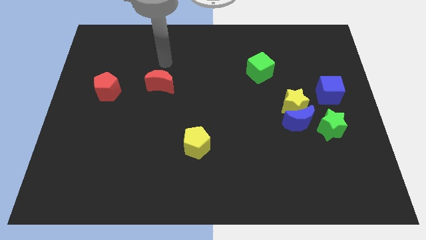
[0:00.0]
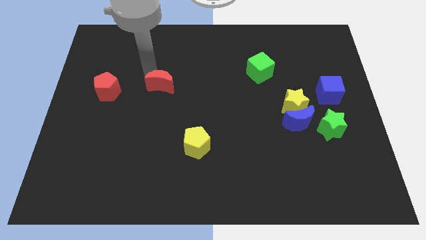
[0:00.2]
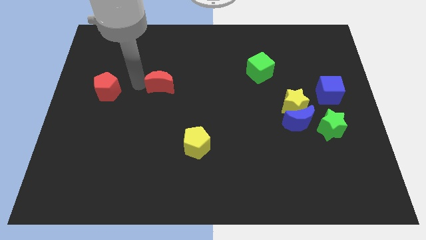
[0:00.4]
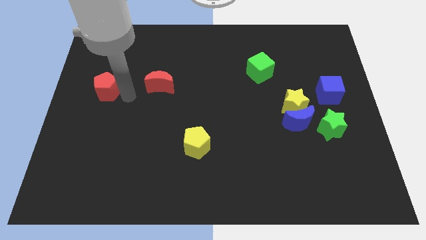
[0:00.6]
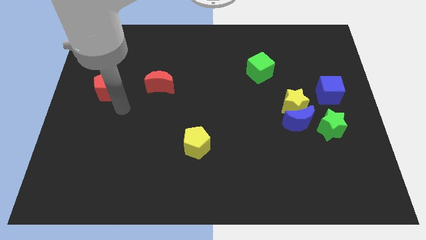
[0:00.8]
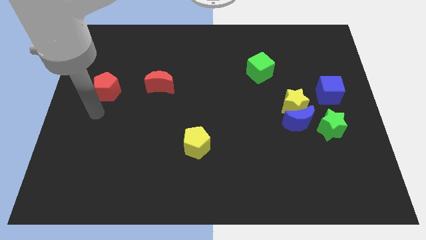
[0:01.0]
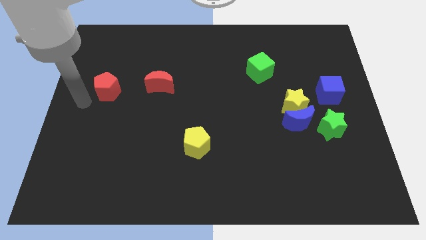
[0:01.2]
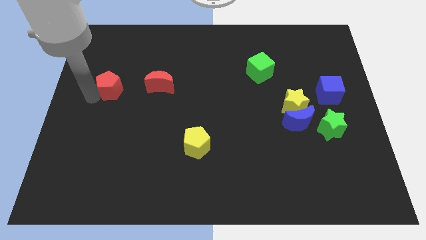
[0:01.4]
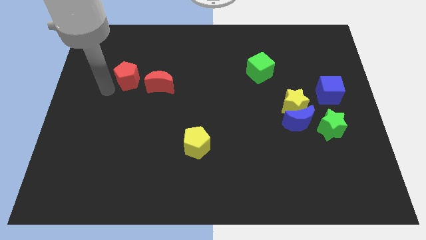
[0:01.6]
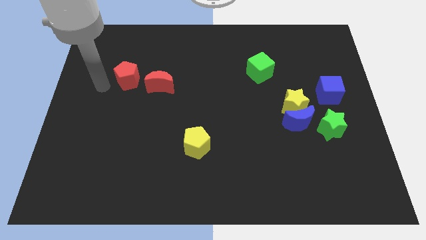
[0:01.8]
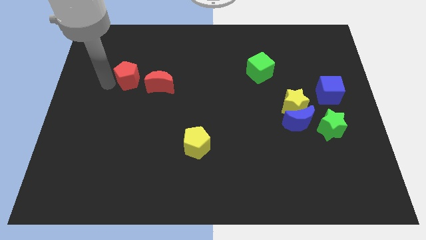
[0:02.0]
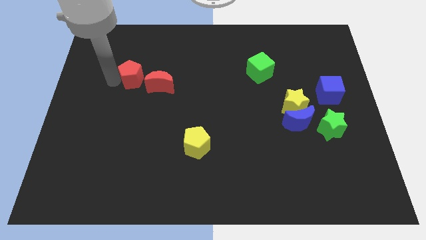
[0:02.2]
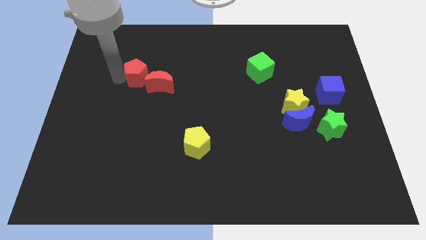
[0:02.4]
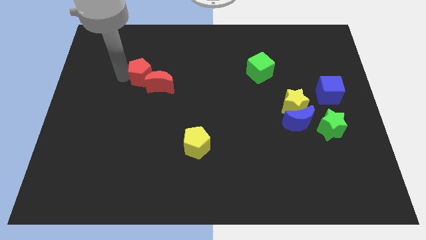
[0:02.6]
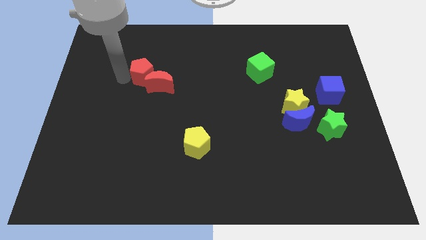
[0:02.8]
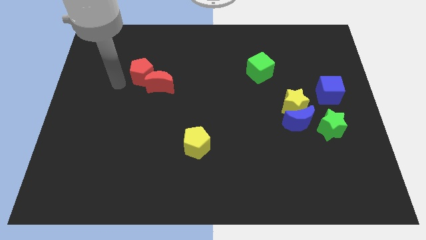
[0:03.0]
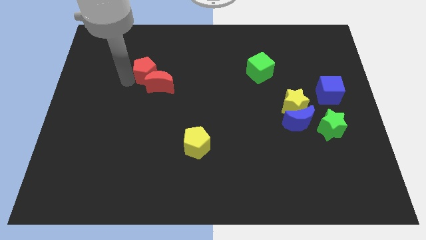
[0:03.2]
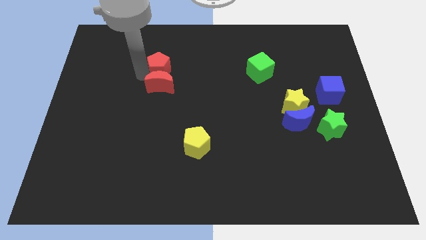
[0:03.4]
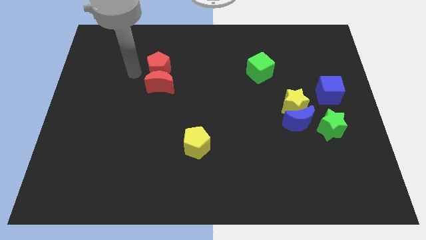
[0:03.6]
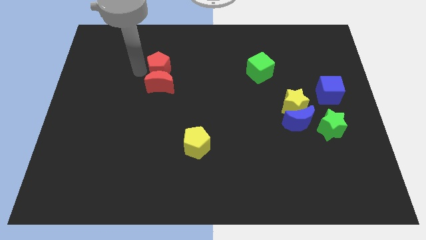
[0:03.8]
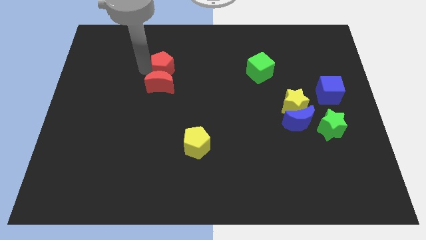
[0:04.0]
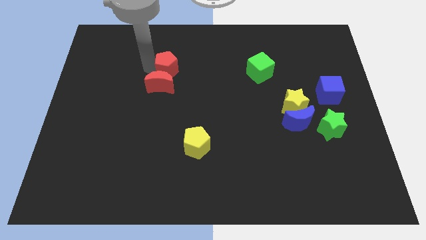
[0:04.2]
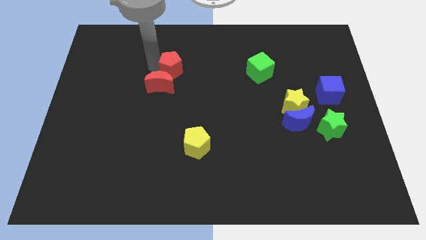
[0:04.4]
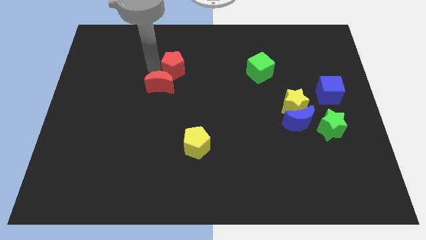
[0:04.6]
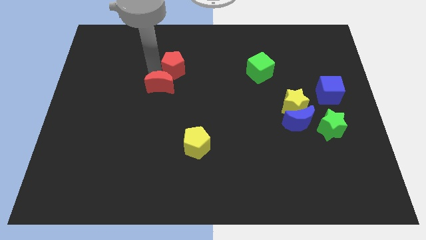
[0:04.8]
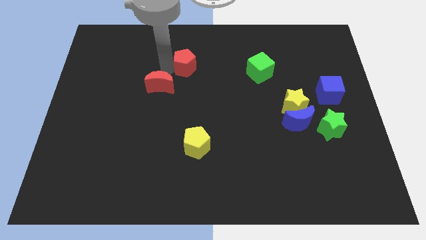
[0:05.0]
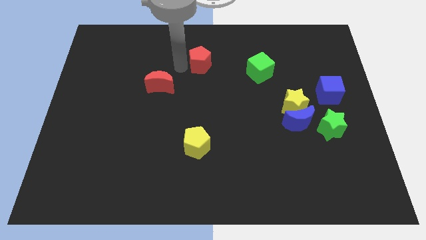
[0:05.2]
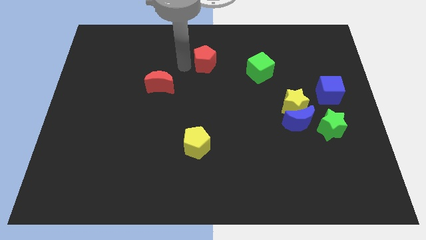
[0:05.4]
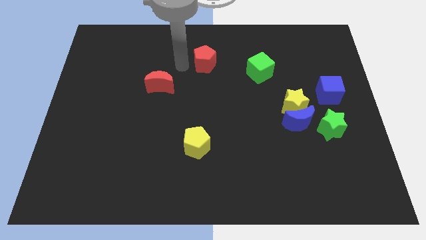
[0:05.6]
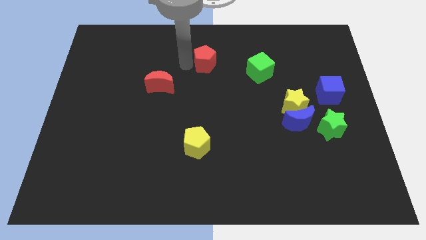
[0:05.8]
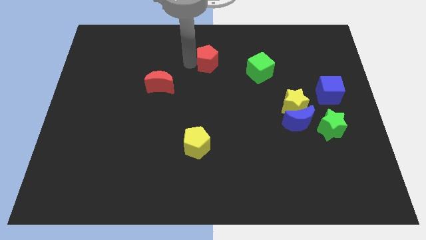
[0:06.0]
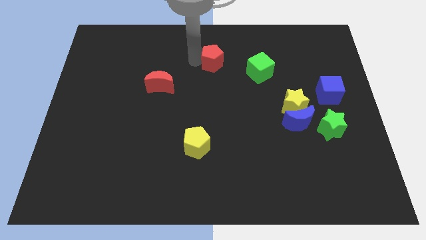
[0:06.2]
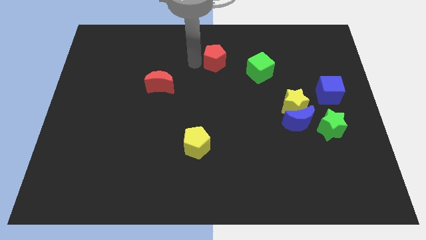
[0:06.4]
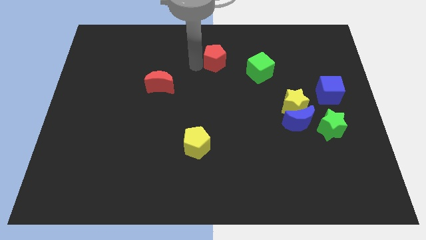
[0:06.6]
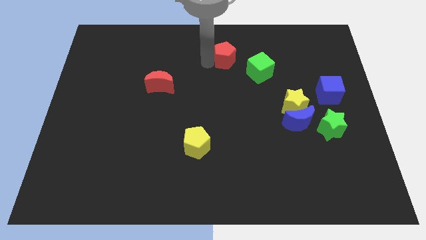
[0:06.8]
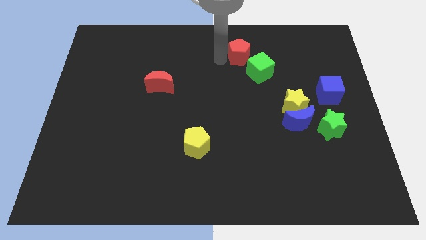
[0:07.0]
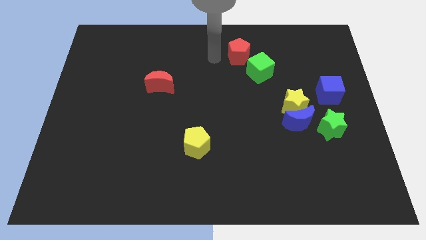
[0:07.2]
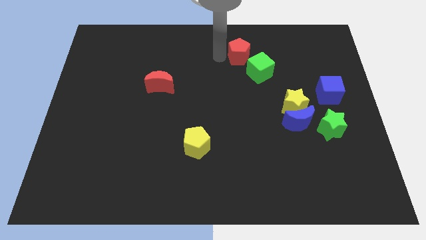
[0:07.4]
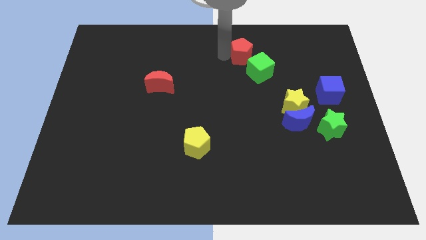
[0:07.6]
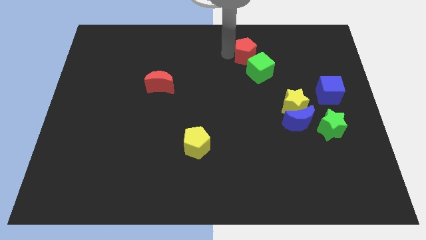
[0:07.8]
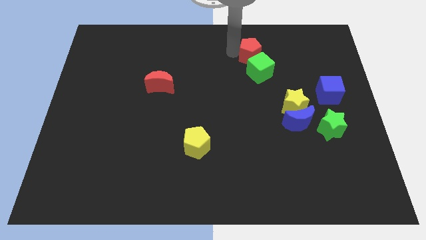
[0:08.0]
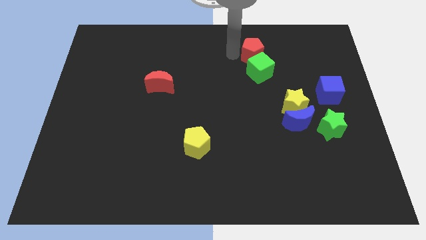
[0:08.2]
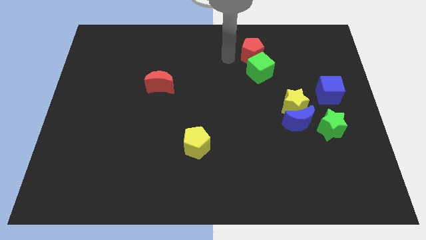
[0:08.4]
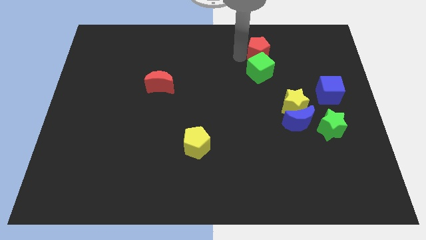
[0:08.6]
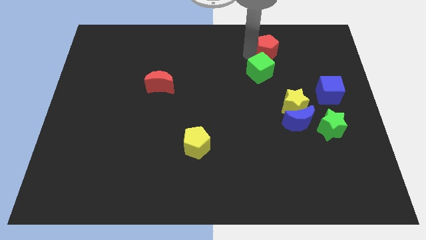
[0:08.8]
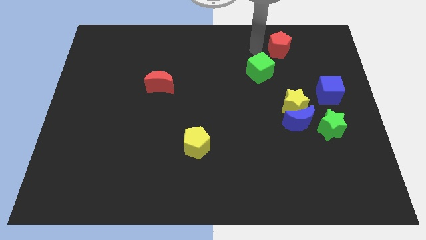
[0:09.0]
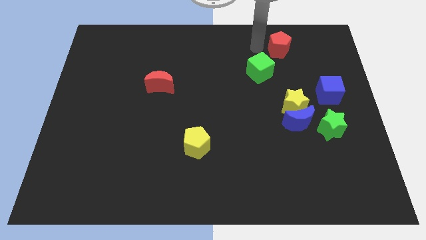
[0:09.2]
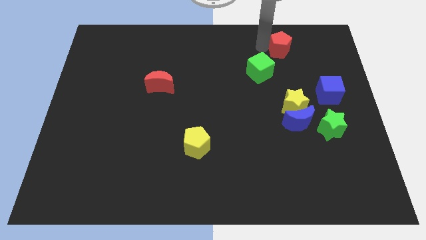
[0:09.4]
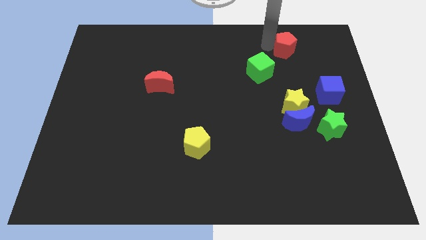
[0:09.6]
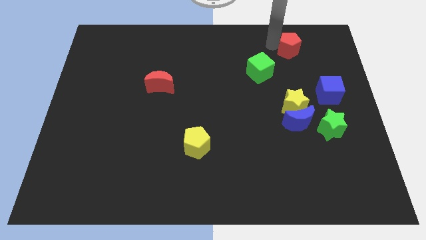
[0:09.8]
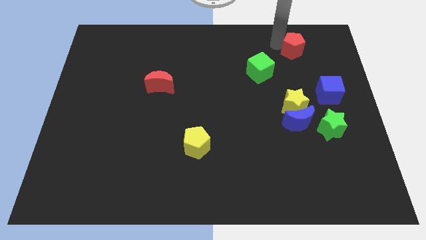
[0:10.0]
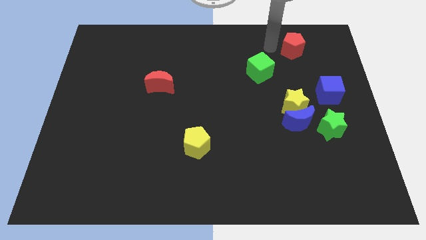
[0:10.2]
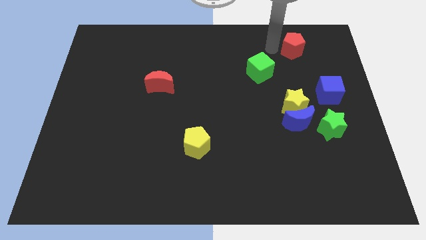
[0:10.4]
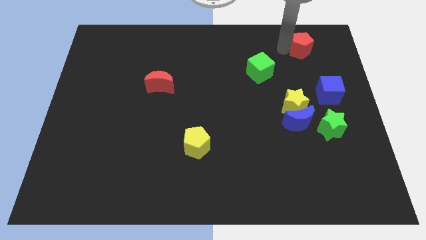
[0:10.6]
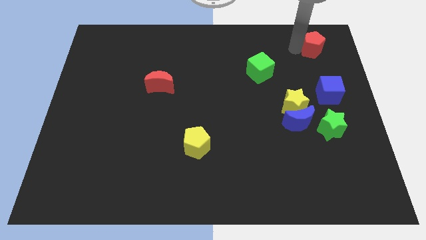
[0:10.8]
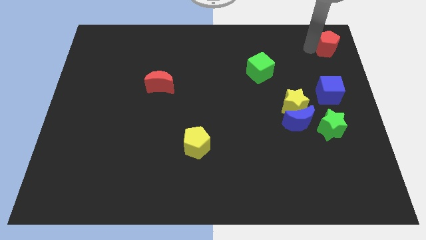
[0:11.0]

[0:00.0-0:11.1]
put the red pentagon to the top right corner

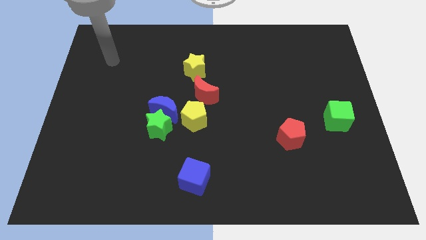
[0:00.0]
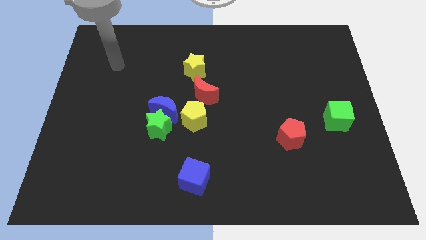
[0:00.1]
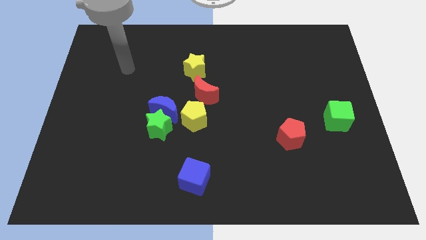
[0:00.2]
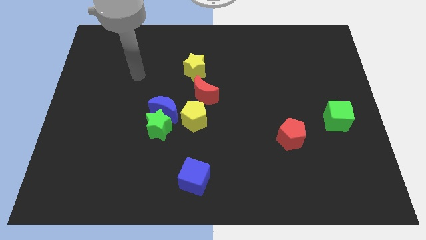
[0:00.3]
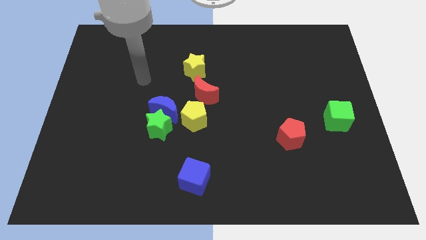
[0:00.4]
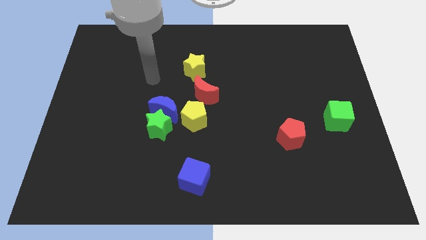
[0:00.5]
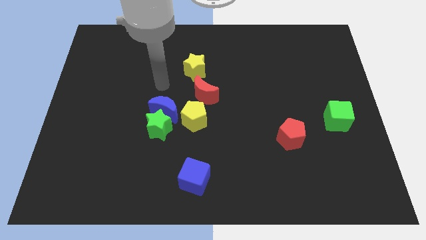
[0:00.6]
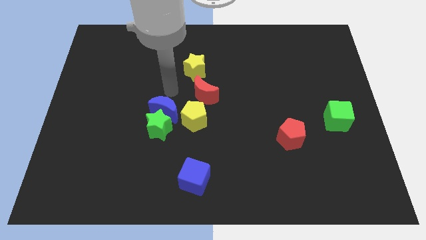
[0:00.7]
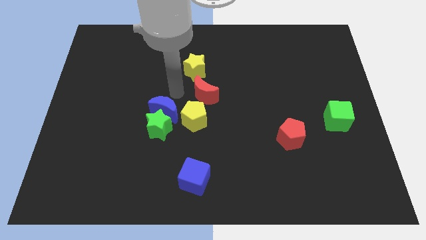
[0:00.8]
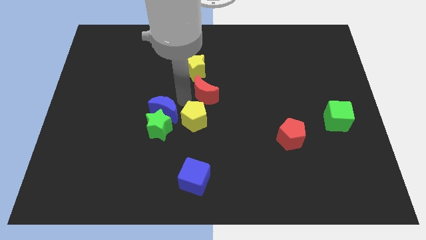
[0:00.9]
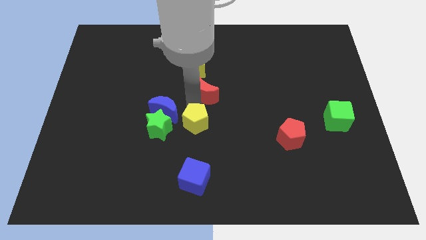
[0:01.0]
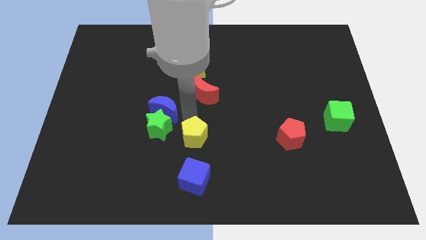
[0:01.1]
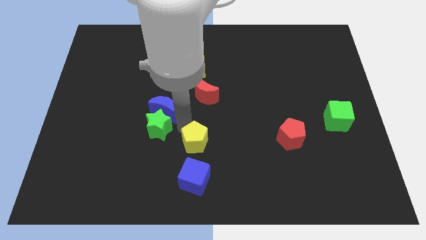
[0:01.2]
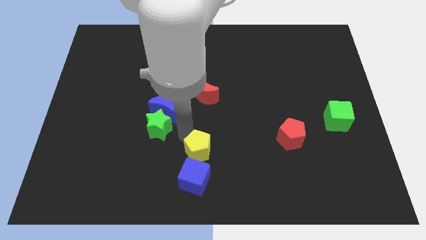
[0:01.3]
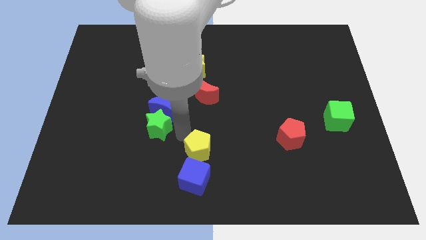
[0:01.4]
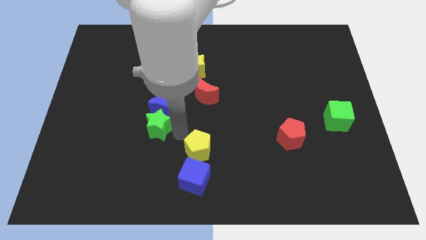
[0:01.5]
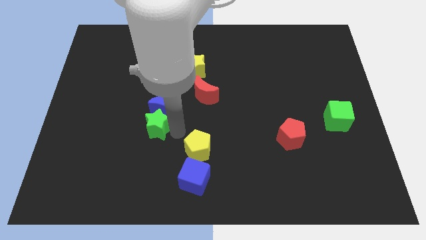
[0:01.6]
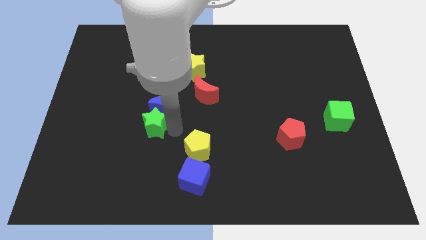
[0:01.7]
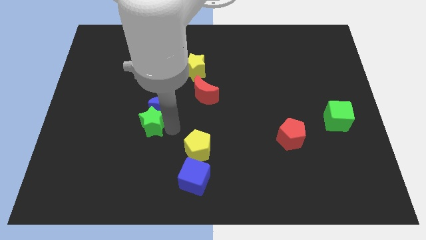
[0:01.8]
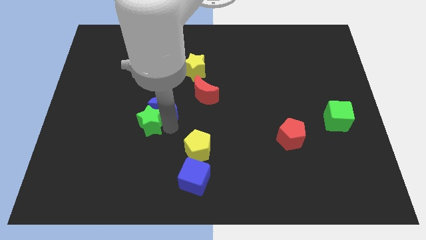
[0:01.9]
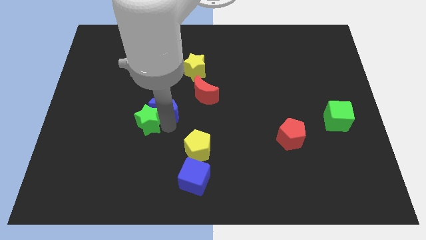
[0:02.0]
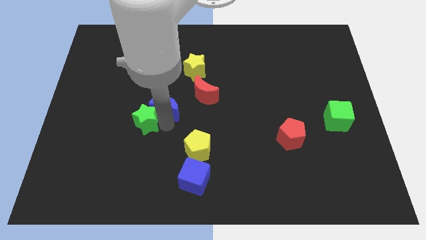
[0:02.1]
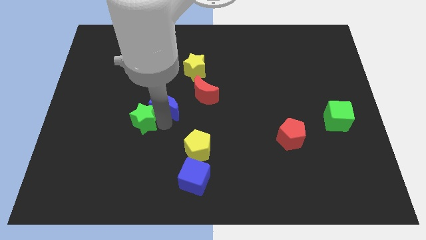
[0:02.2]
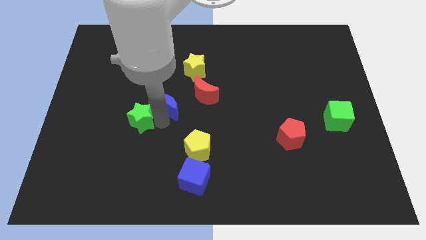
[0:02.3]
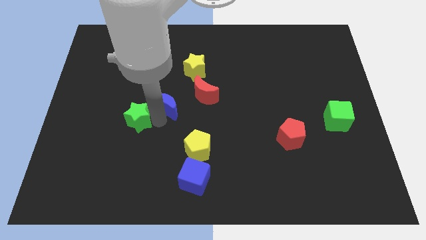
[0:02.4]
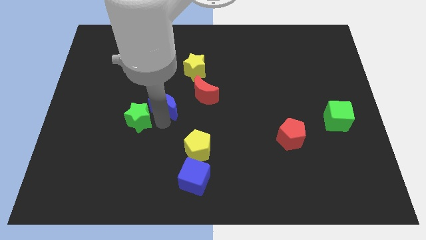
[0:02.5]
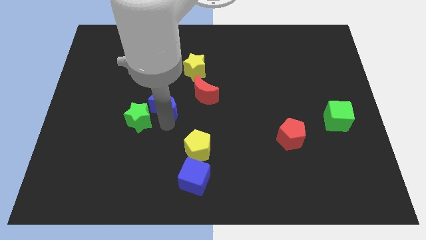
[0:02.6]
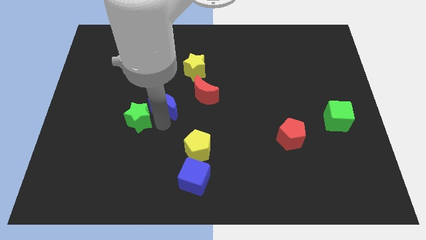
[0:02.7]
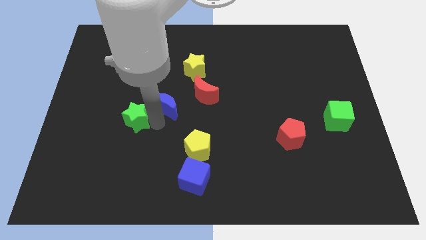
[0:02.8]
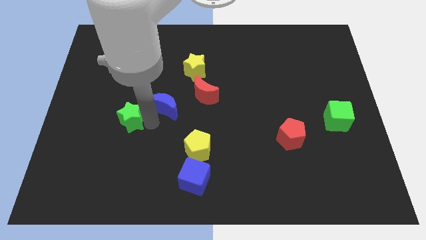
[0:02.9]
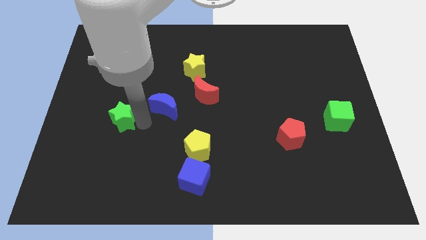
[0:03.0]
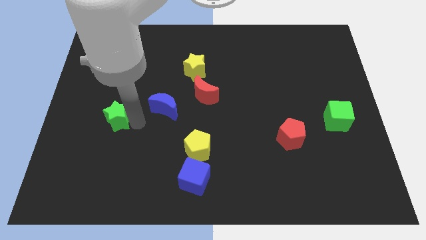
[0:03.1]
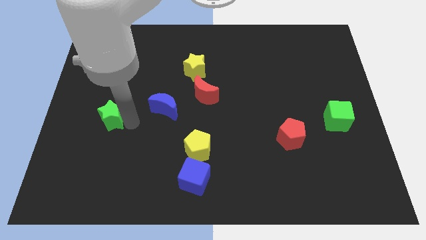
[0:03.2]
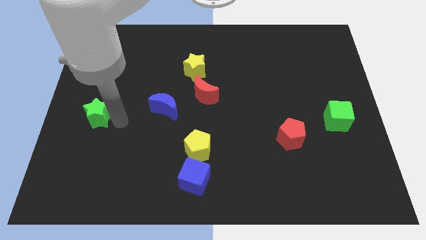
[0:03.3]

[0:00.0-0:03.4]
put the green star to the center left
